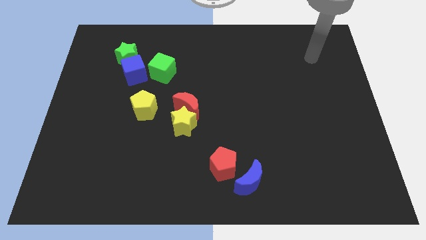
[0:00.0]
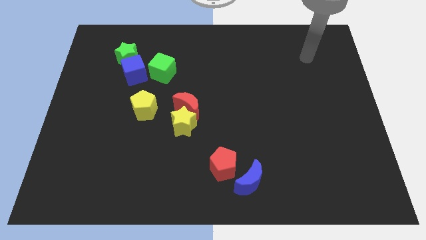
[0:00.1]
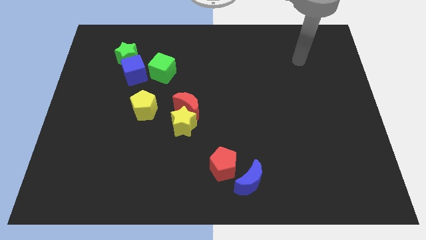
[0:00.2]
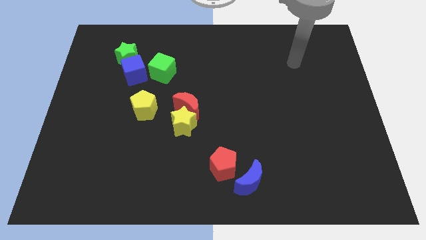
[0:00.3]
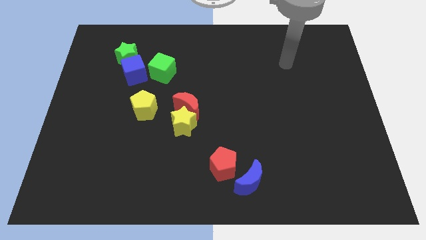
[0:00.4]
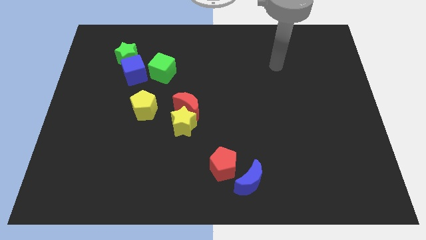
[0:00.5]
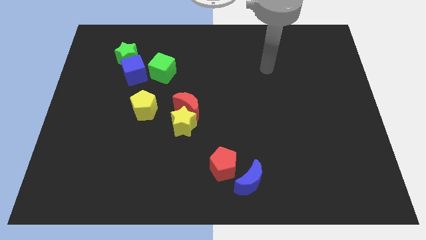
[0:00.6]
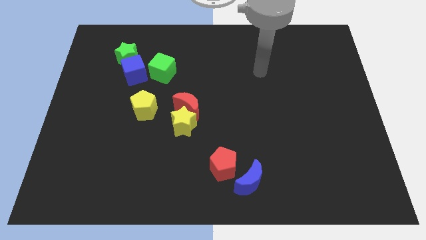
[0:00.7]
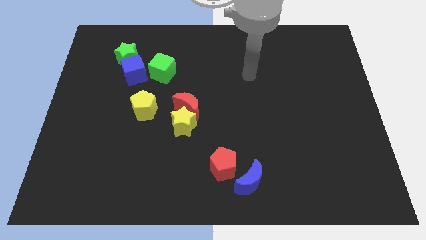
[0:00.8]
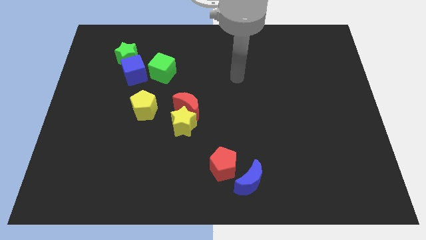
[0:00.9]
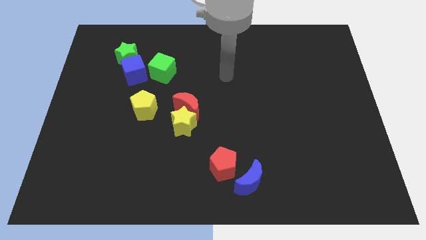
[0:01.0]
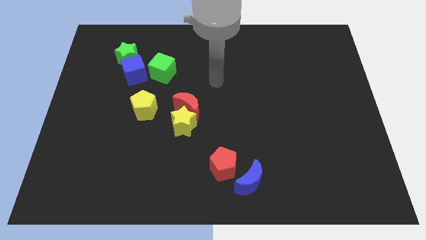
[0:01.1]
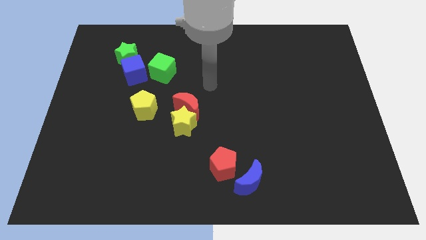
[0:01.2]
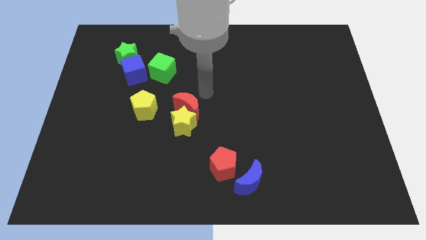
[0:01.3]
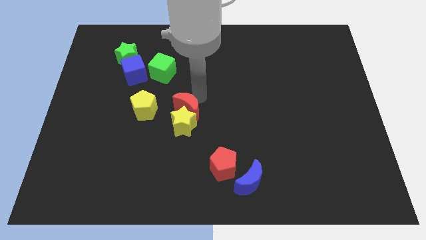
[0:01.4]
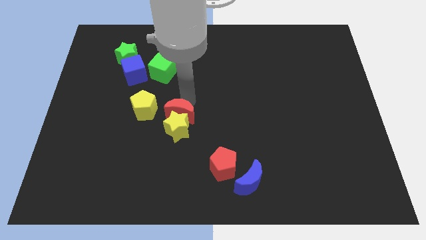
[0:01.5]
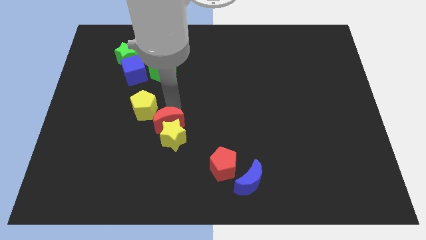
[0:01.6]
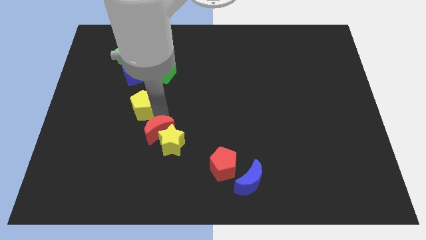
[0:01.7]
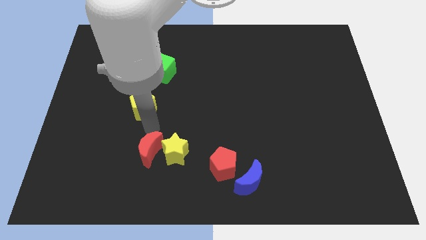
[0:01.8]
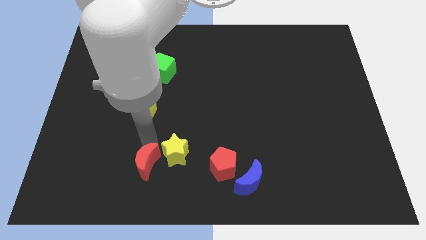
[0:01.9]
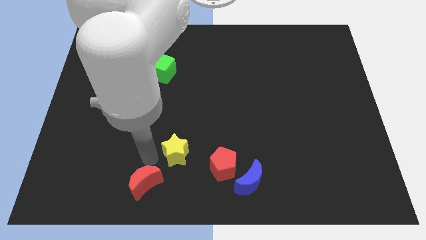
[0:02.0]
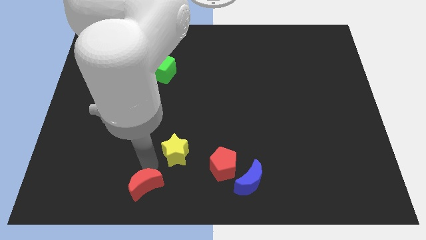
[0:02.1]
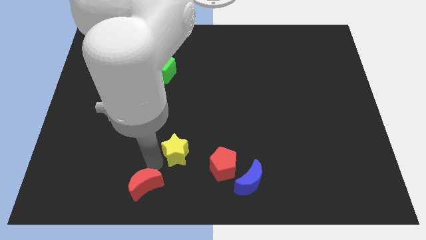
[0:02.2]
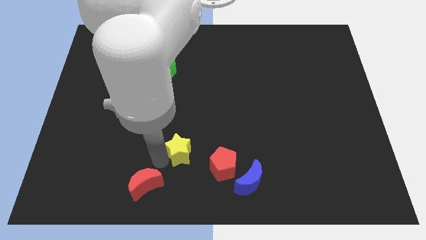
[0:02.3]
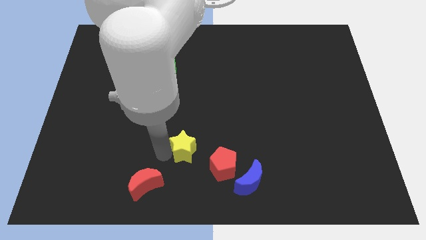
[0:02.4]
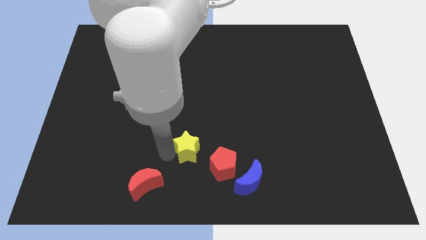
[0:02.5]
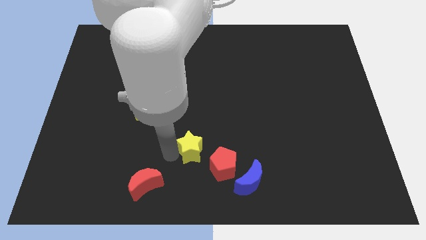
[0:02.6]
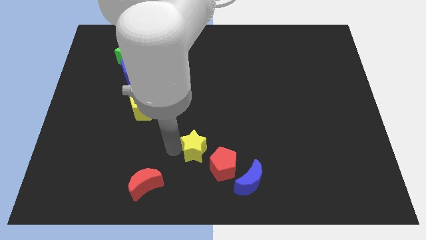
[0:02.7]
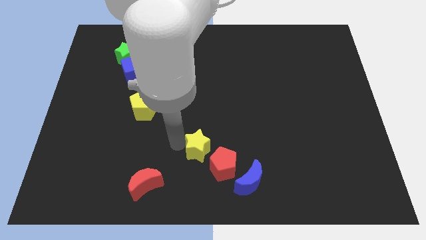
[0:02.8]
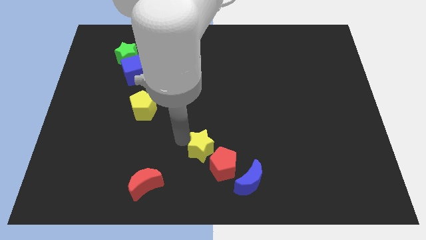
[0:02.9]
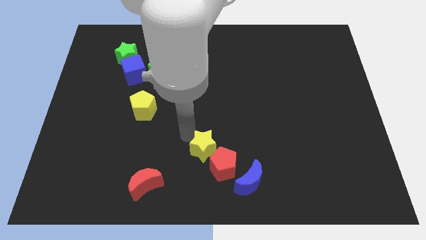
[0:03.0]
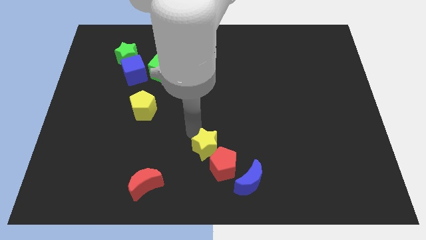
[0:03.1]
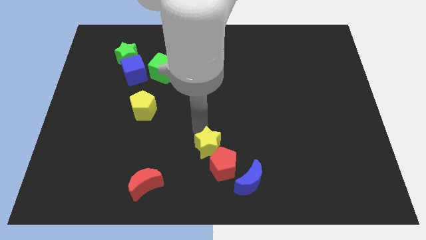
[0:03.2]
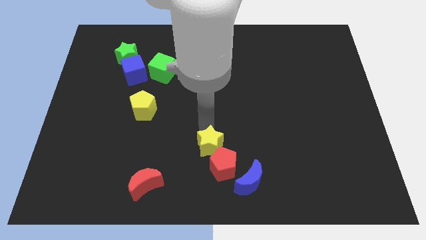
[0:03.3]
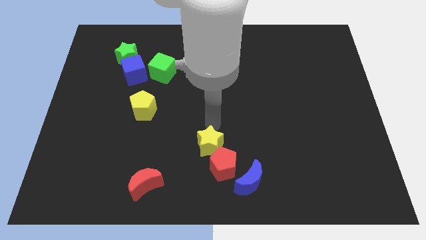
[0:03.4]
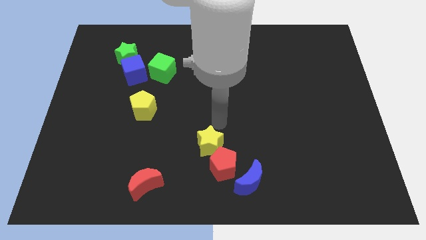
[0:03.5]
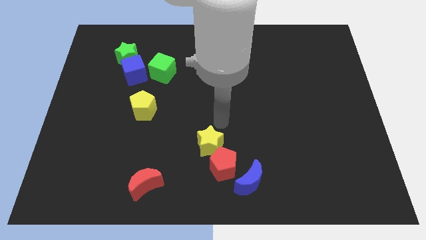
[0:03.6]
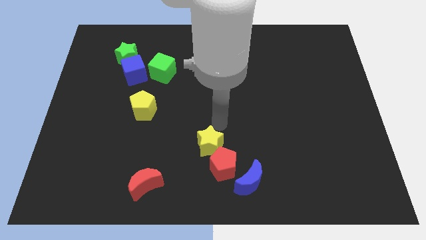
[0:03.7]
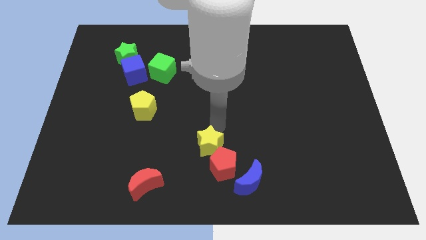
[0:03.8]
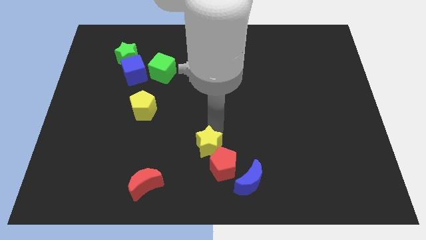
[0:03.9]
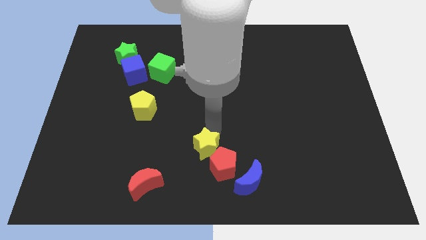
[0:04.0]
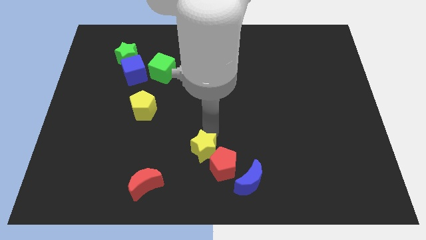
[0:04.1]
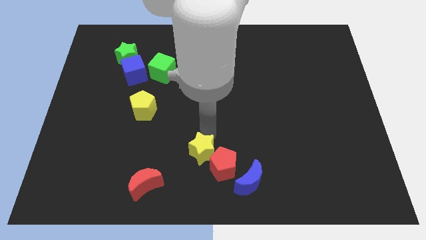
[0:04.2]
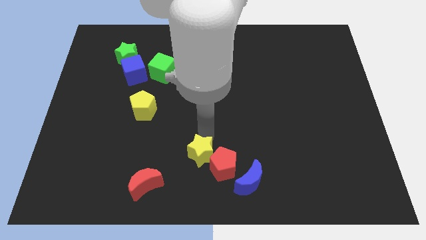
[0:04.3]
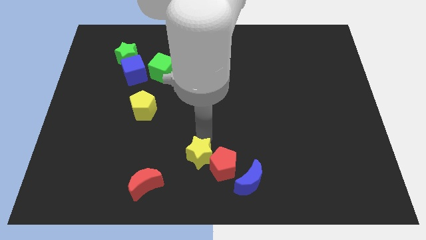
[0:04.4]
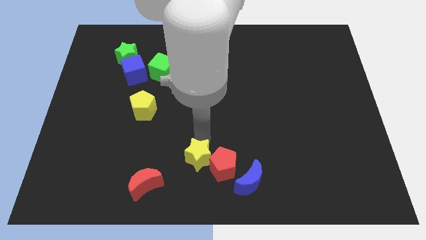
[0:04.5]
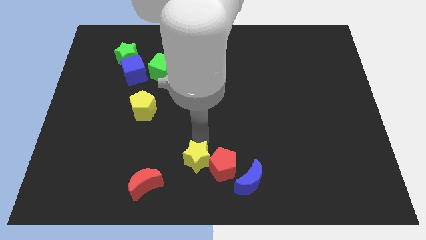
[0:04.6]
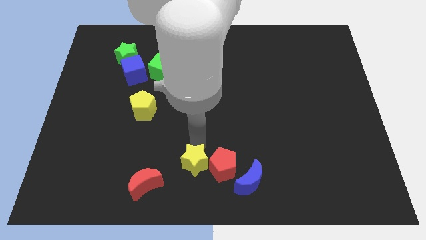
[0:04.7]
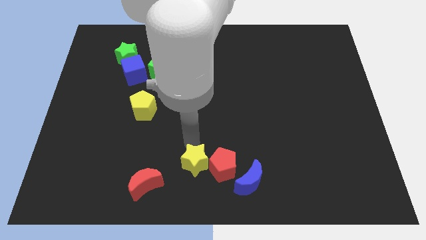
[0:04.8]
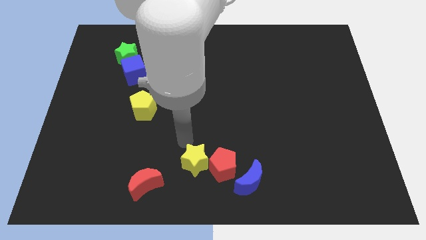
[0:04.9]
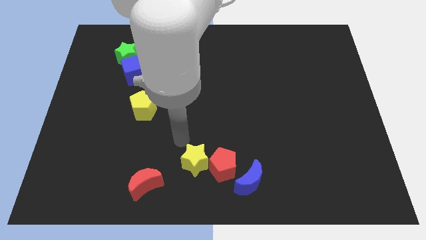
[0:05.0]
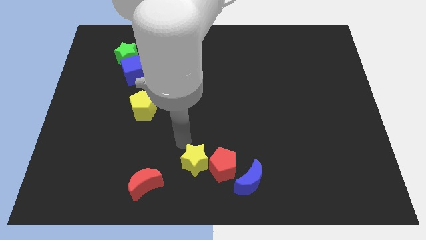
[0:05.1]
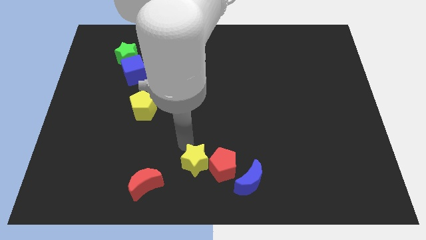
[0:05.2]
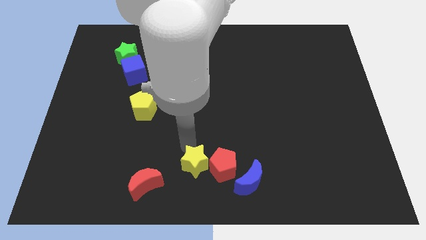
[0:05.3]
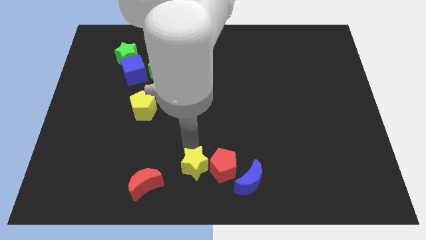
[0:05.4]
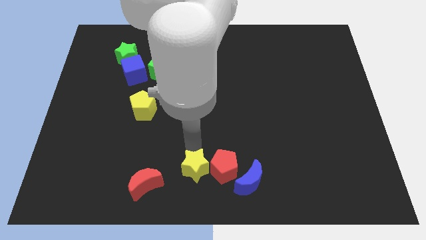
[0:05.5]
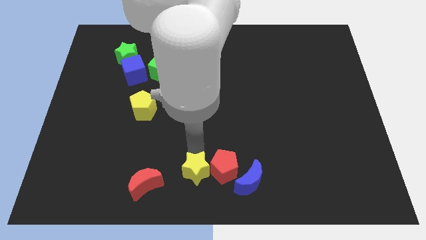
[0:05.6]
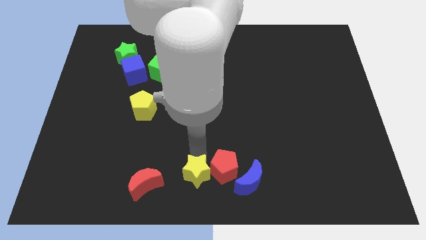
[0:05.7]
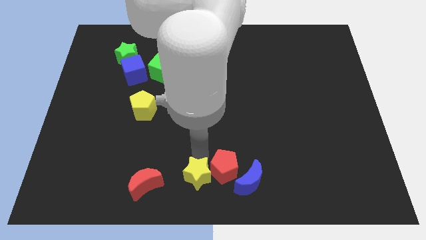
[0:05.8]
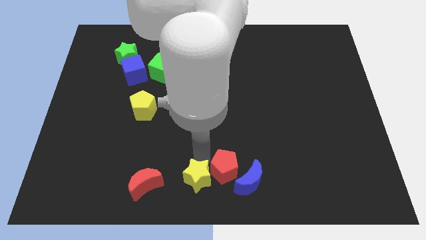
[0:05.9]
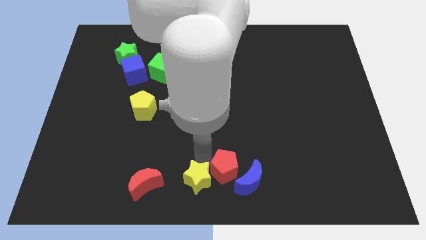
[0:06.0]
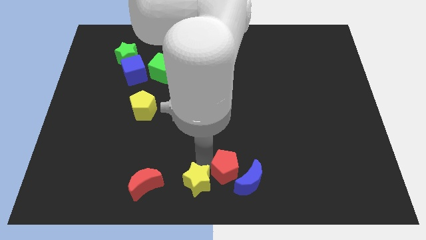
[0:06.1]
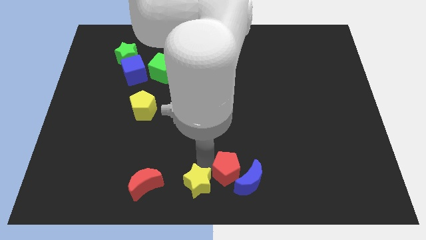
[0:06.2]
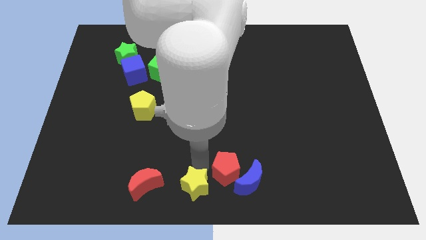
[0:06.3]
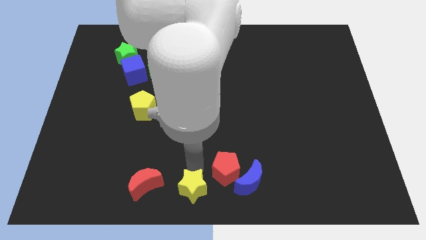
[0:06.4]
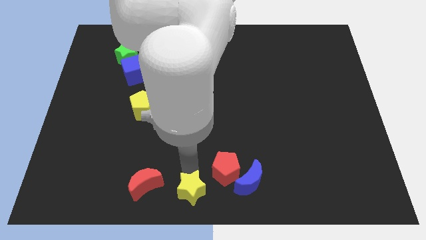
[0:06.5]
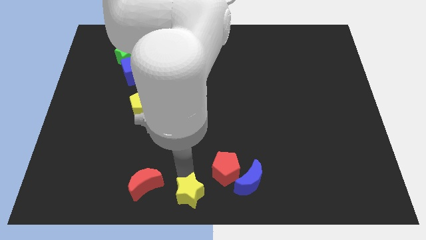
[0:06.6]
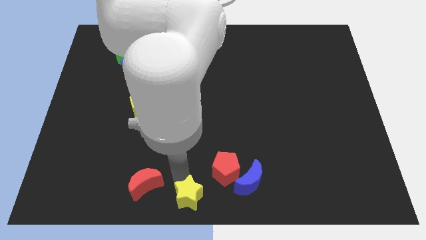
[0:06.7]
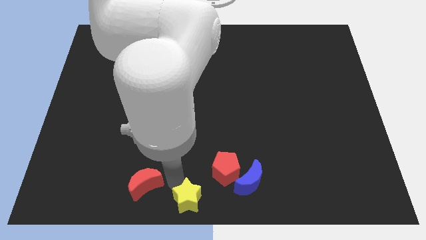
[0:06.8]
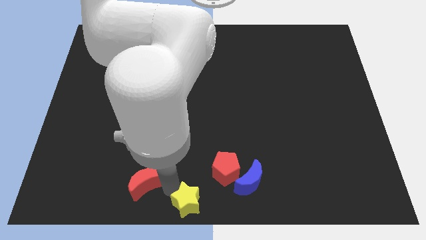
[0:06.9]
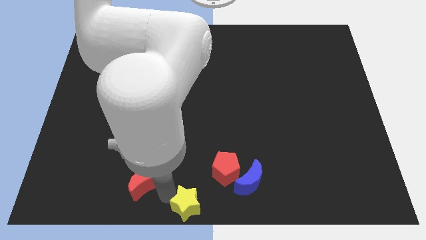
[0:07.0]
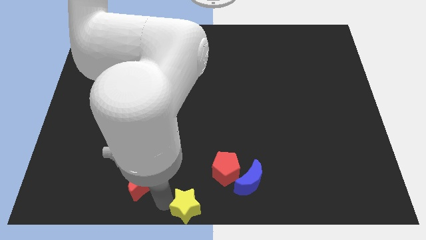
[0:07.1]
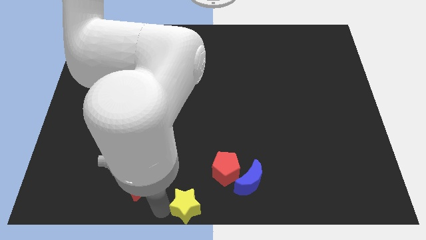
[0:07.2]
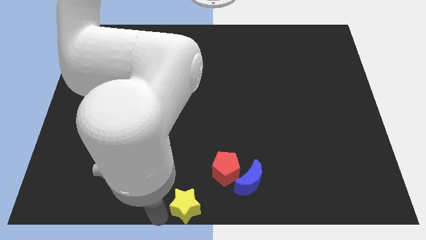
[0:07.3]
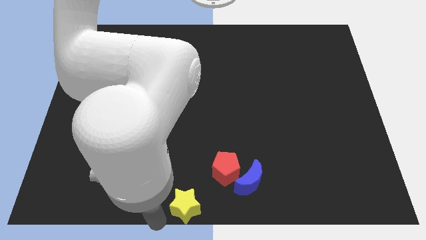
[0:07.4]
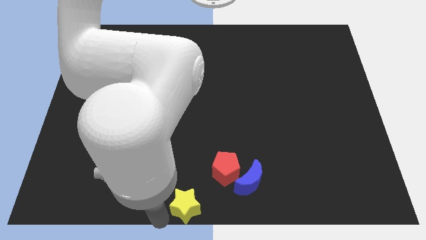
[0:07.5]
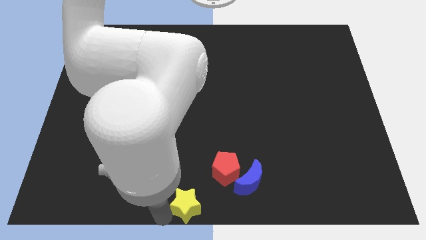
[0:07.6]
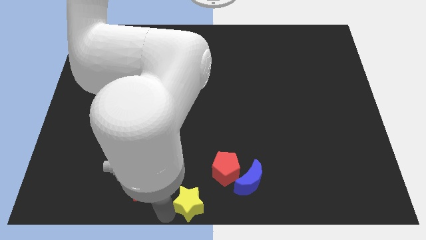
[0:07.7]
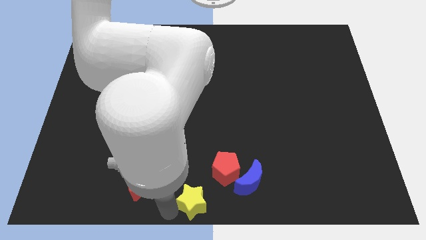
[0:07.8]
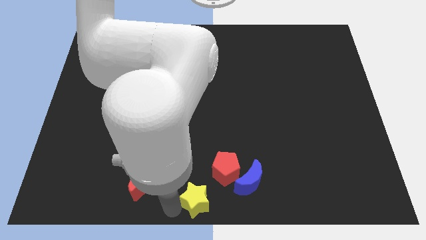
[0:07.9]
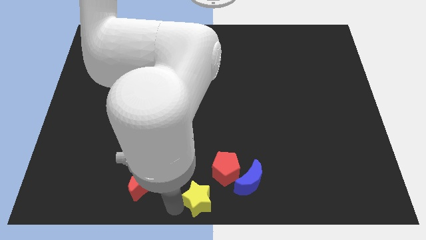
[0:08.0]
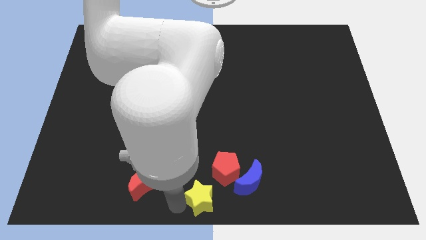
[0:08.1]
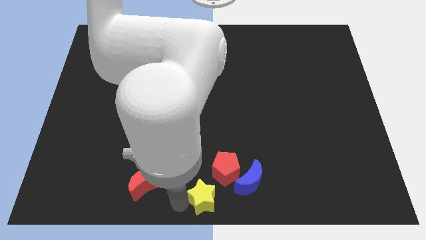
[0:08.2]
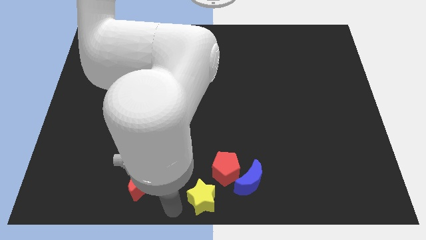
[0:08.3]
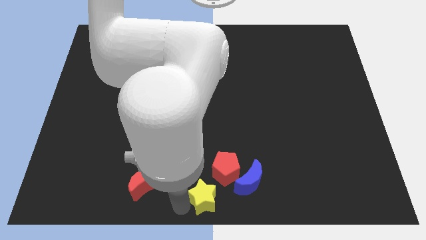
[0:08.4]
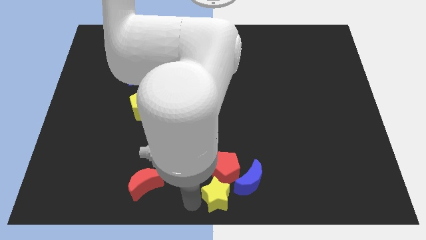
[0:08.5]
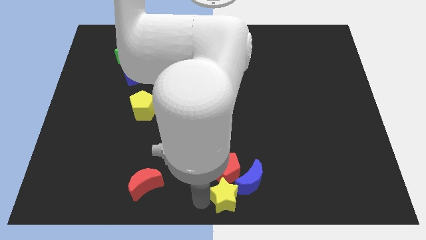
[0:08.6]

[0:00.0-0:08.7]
move the yellow star to the blue moon
